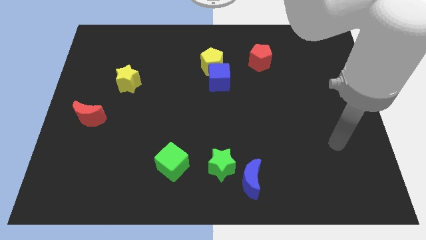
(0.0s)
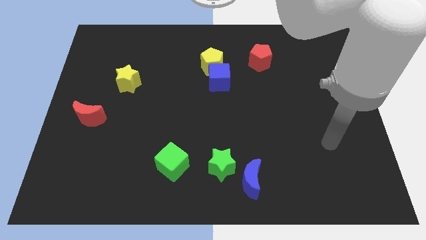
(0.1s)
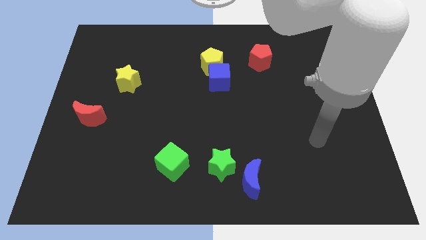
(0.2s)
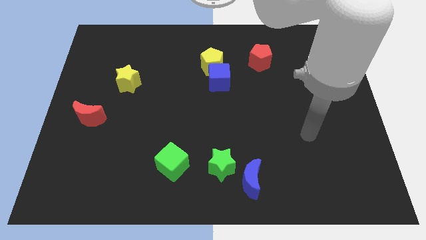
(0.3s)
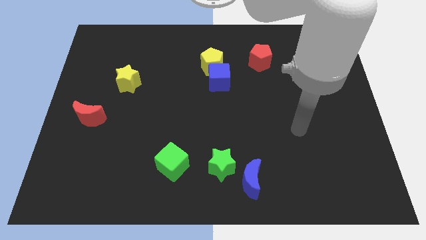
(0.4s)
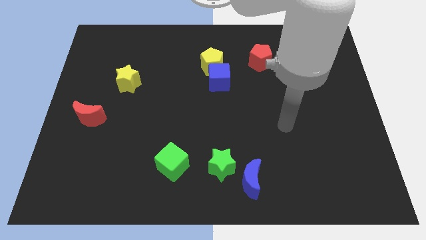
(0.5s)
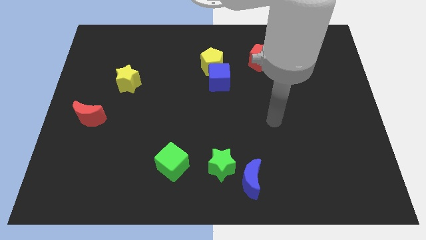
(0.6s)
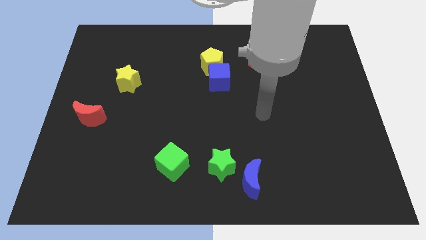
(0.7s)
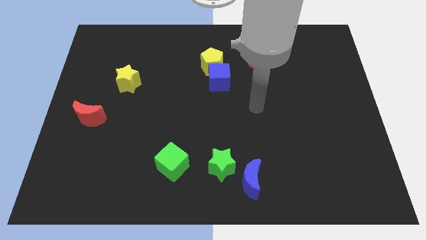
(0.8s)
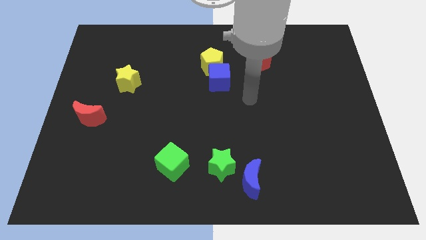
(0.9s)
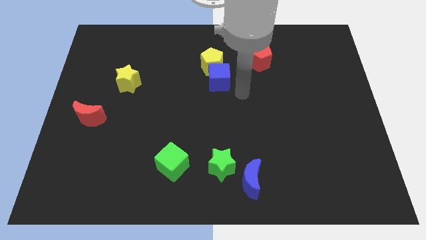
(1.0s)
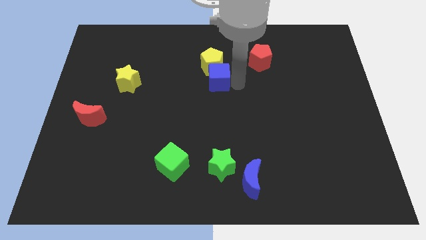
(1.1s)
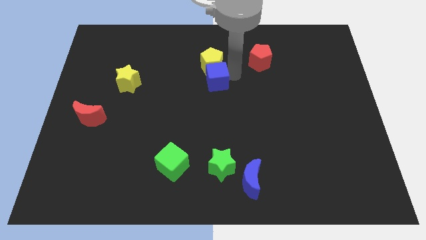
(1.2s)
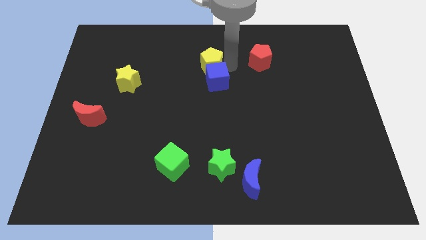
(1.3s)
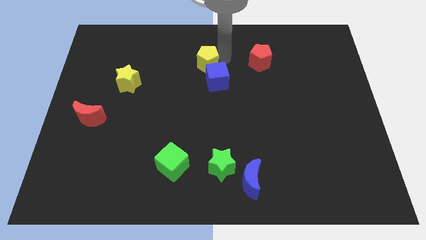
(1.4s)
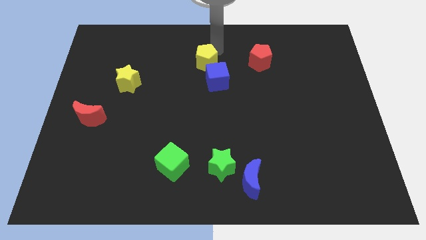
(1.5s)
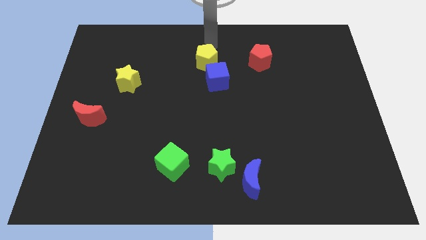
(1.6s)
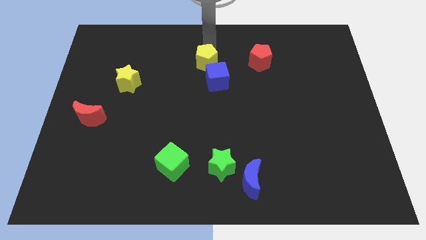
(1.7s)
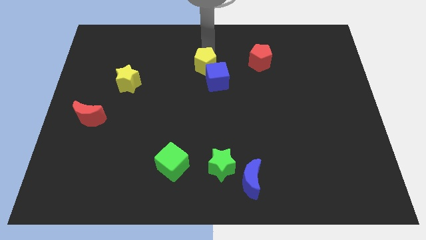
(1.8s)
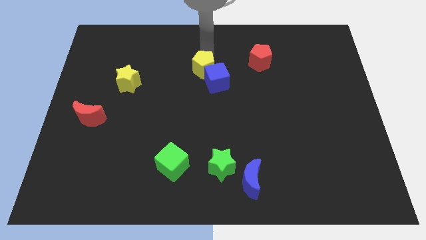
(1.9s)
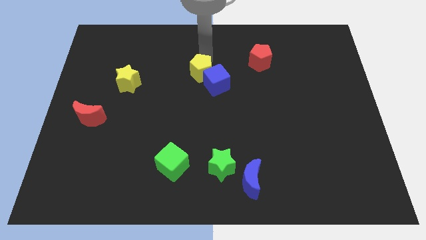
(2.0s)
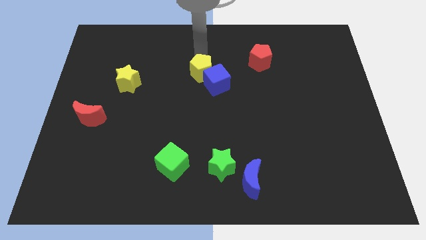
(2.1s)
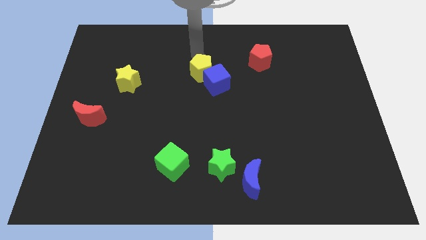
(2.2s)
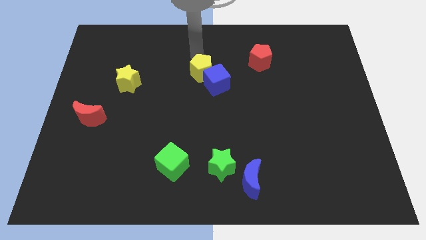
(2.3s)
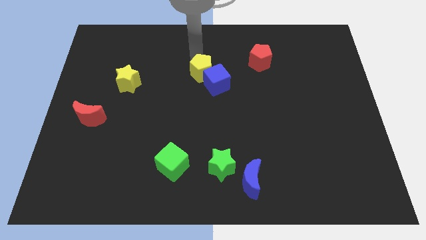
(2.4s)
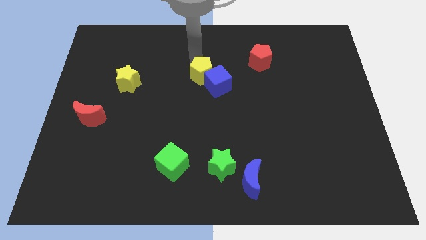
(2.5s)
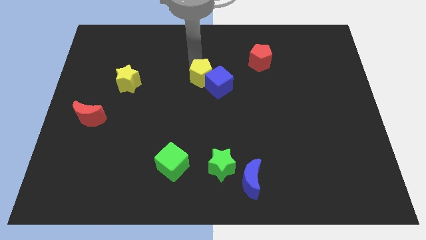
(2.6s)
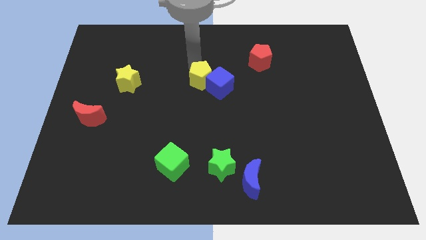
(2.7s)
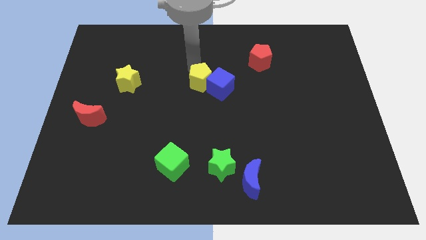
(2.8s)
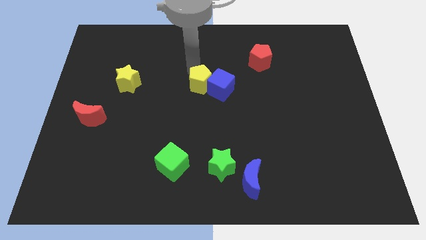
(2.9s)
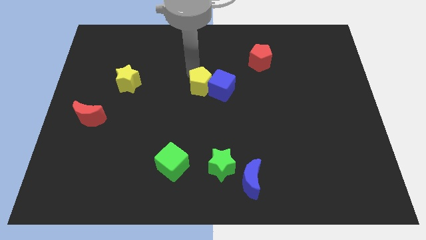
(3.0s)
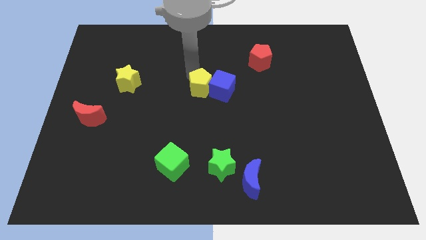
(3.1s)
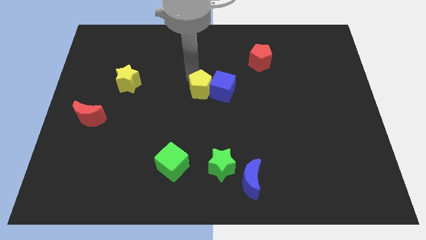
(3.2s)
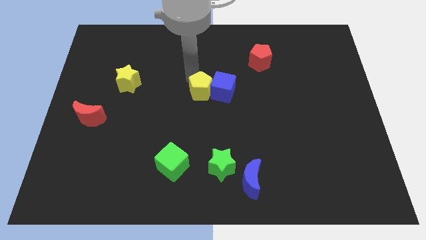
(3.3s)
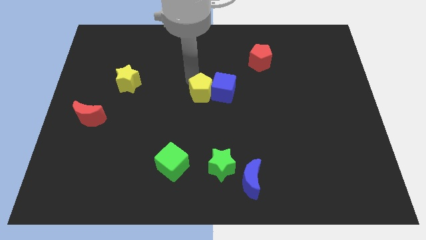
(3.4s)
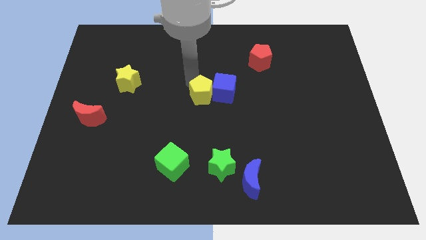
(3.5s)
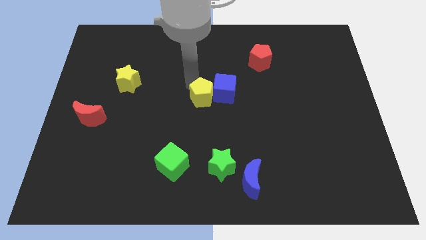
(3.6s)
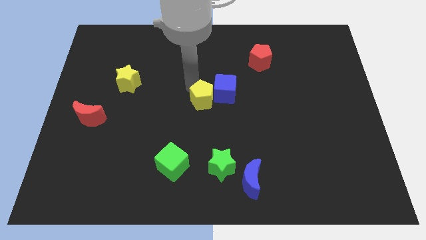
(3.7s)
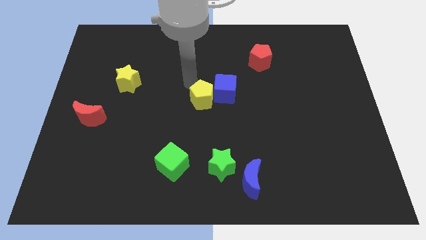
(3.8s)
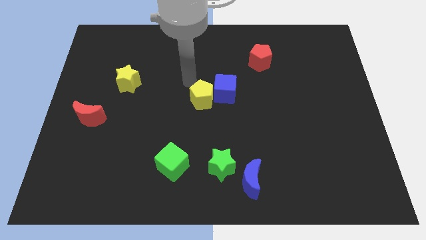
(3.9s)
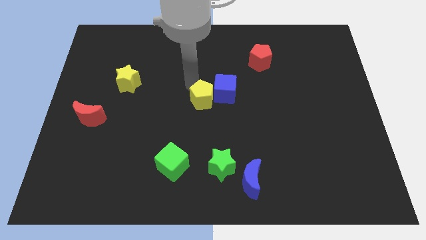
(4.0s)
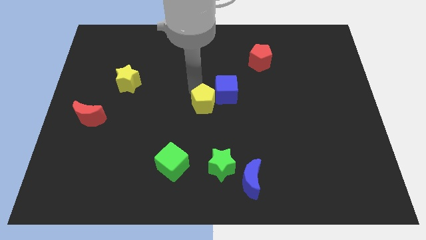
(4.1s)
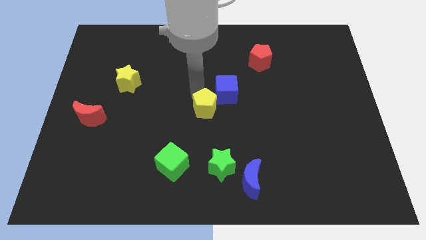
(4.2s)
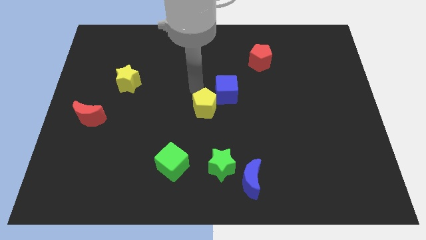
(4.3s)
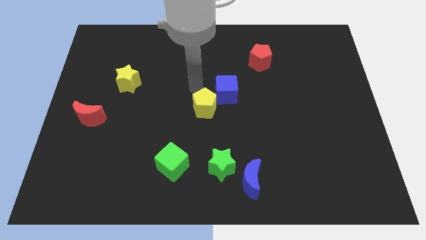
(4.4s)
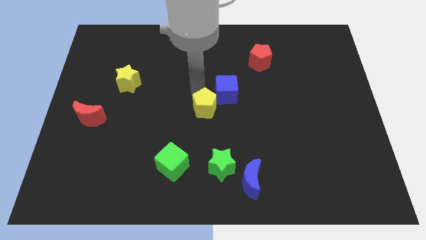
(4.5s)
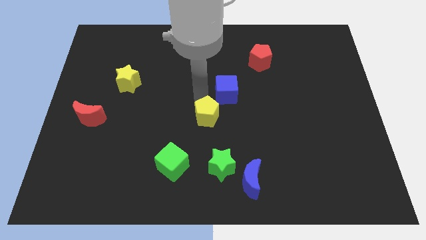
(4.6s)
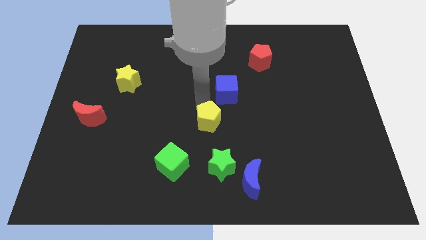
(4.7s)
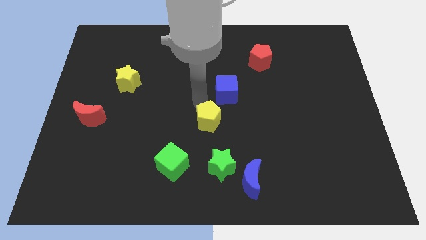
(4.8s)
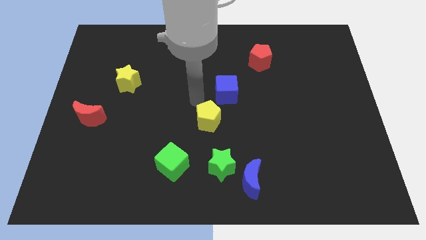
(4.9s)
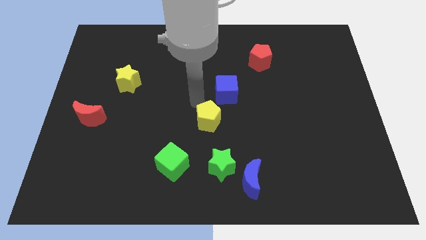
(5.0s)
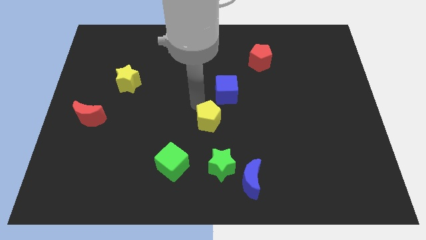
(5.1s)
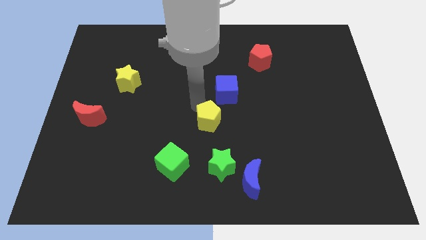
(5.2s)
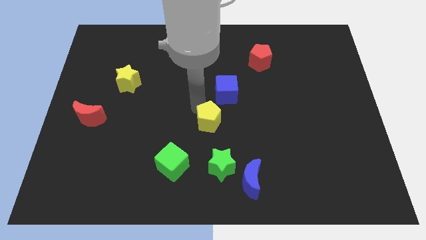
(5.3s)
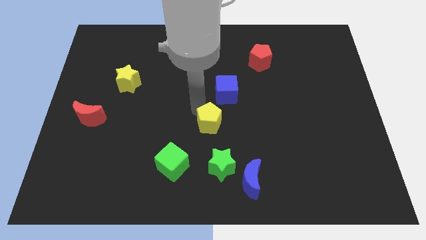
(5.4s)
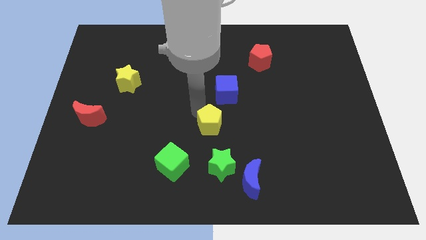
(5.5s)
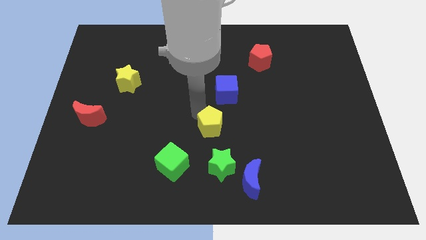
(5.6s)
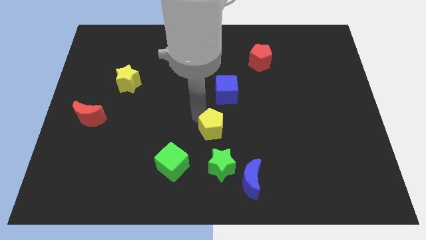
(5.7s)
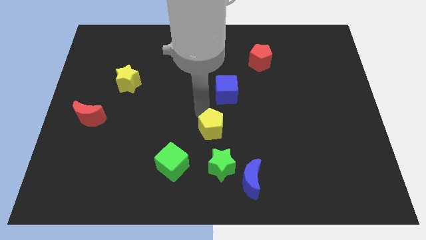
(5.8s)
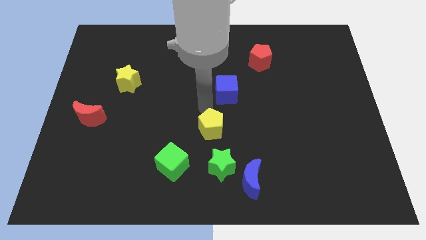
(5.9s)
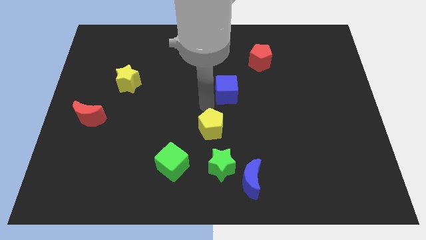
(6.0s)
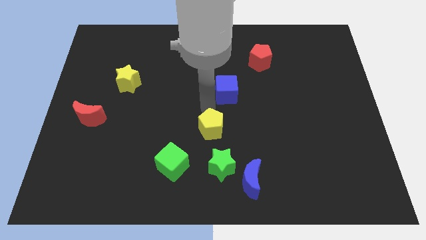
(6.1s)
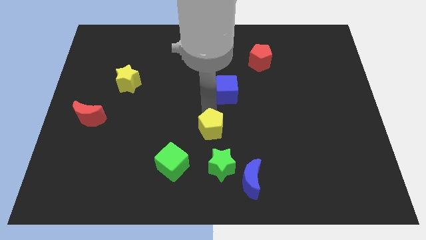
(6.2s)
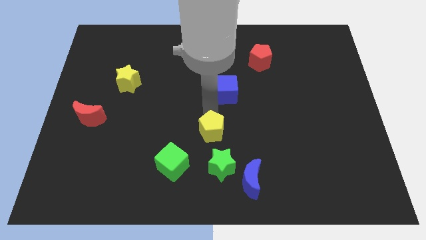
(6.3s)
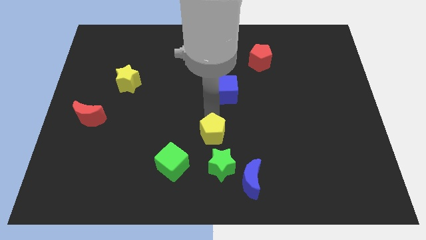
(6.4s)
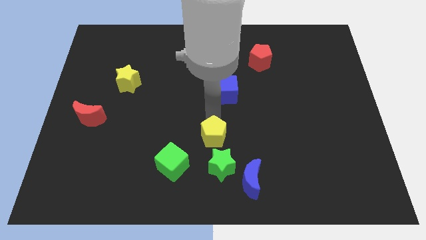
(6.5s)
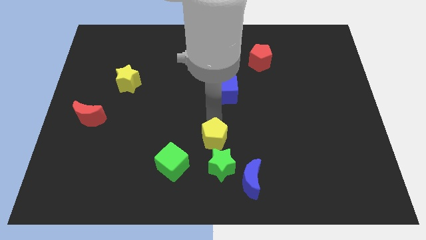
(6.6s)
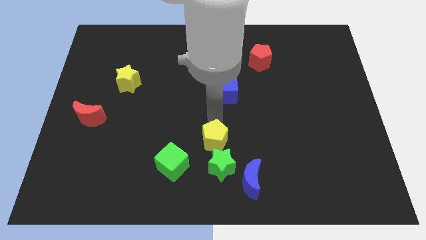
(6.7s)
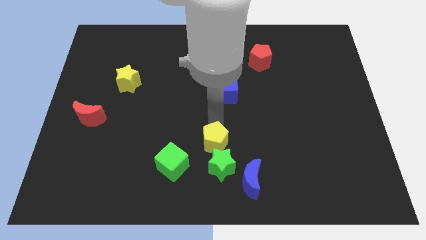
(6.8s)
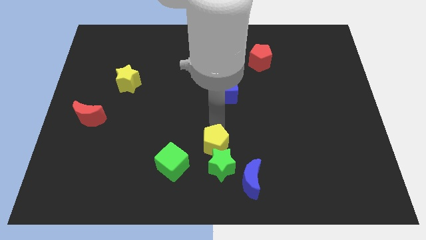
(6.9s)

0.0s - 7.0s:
push the yellow pentagon to the green star

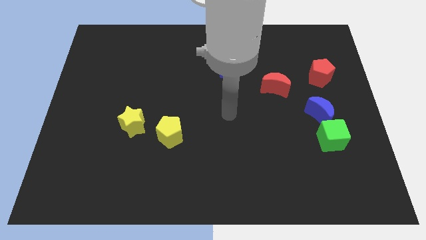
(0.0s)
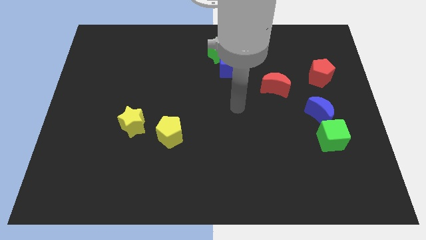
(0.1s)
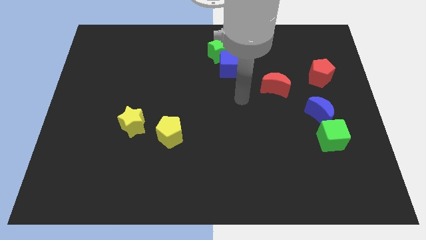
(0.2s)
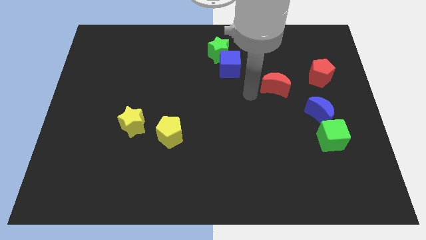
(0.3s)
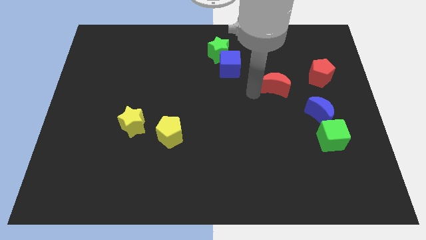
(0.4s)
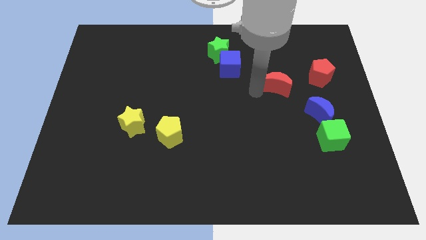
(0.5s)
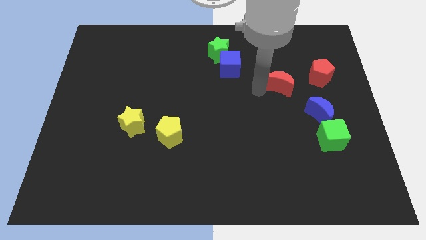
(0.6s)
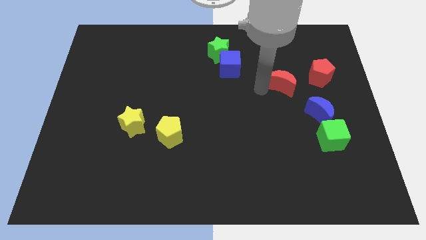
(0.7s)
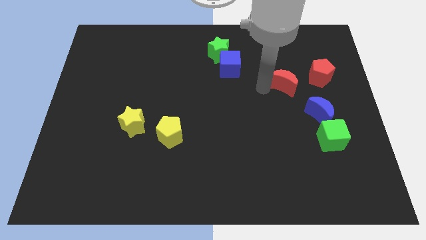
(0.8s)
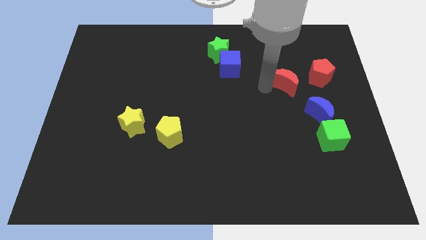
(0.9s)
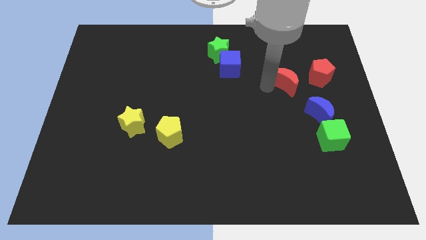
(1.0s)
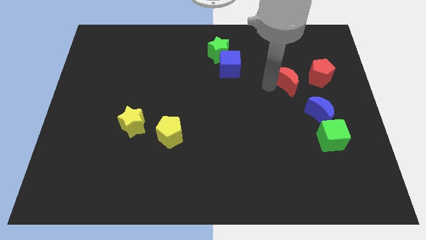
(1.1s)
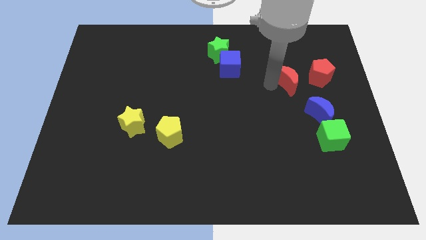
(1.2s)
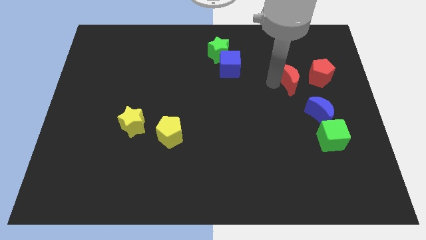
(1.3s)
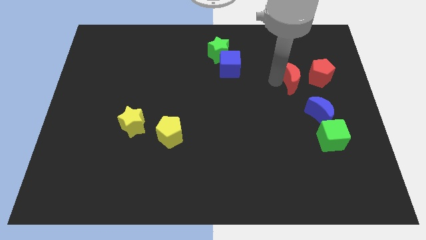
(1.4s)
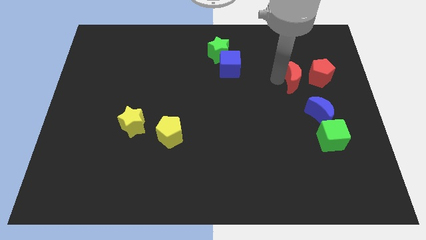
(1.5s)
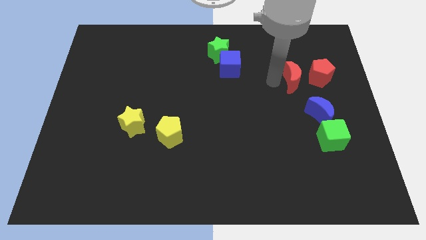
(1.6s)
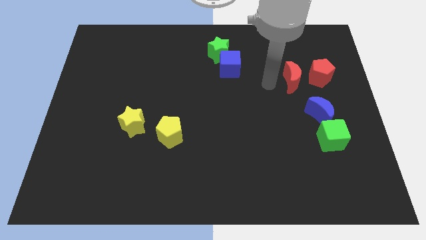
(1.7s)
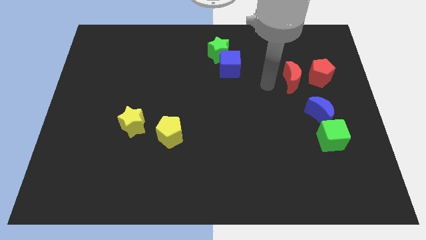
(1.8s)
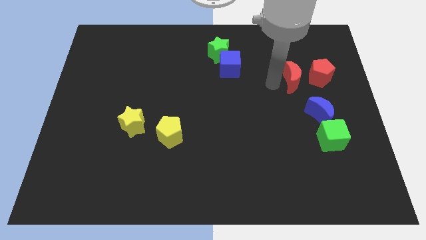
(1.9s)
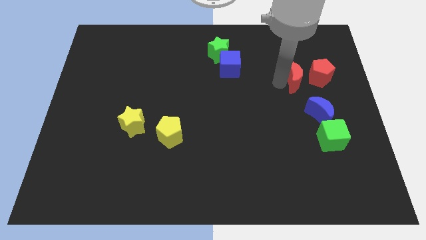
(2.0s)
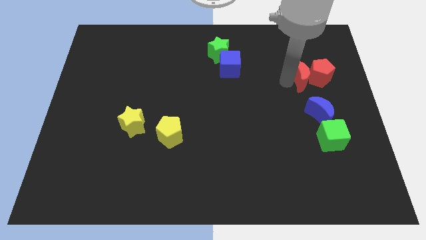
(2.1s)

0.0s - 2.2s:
put the red moon close to the red pentagon
